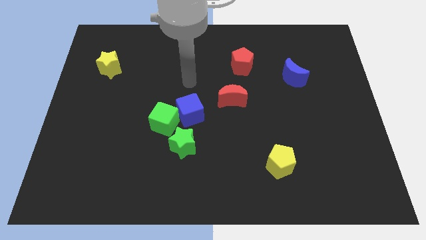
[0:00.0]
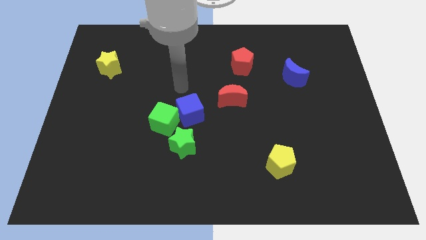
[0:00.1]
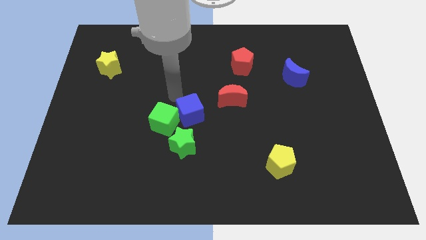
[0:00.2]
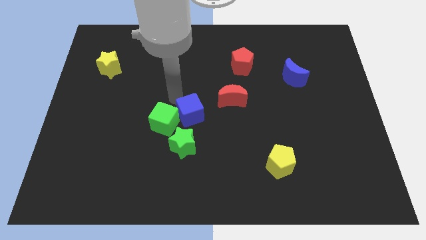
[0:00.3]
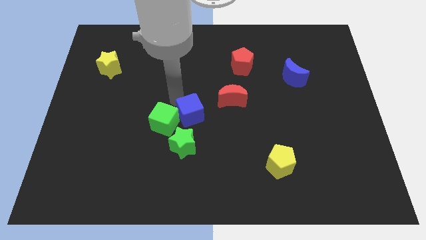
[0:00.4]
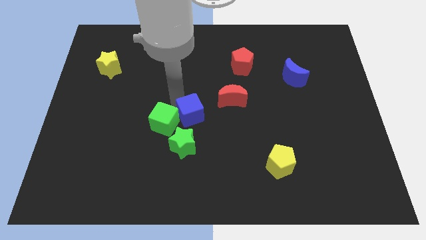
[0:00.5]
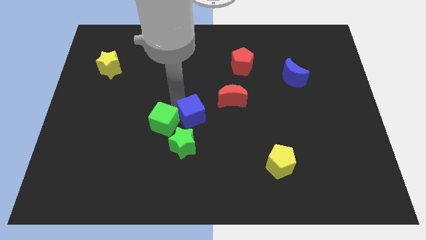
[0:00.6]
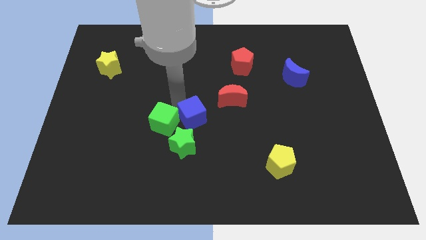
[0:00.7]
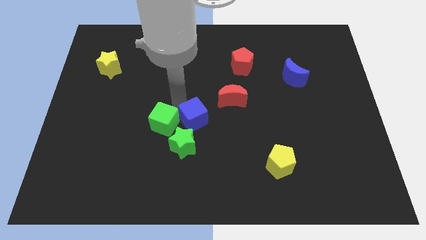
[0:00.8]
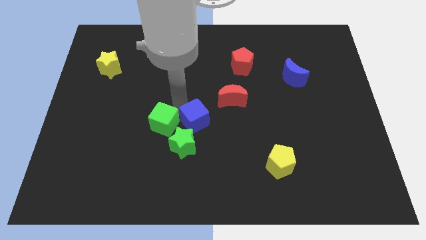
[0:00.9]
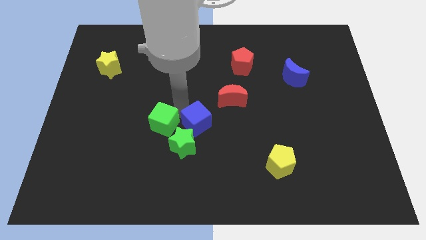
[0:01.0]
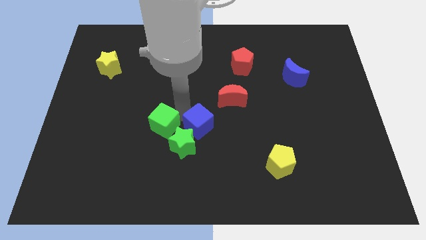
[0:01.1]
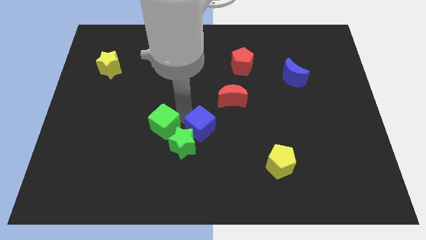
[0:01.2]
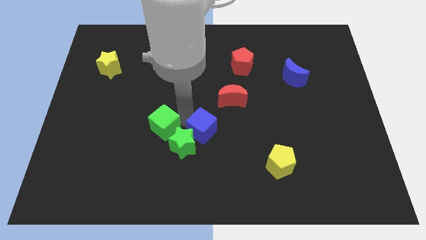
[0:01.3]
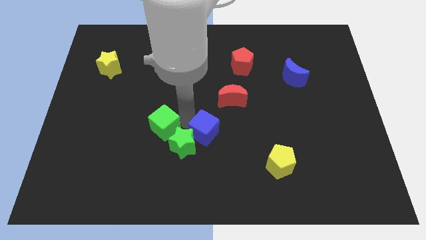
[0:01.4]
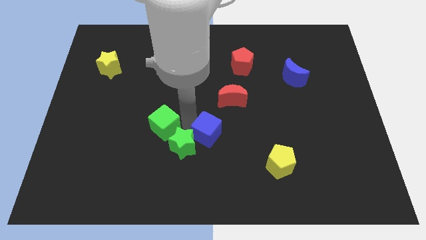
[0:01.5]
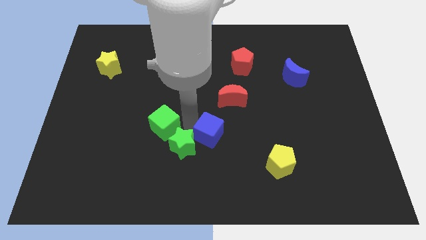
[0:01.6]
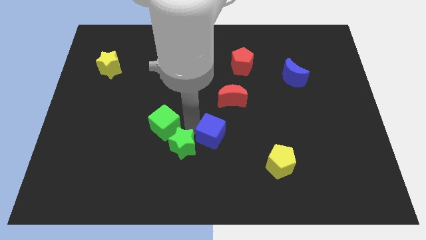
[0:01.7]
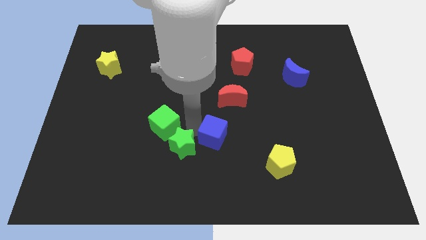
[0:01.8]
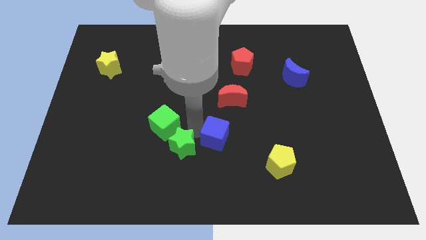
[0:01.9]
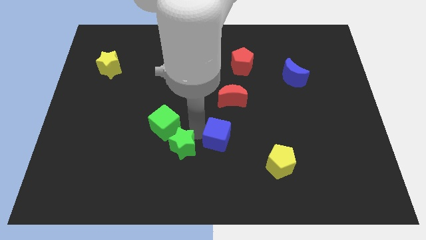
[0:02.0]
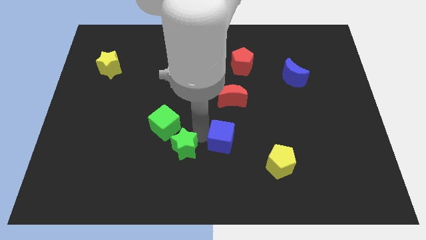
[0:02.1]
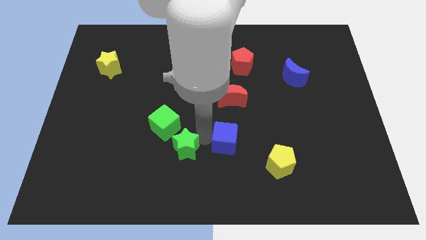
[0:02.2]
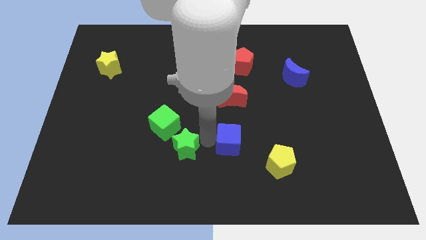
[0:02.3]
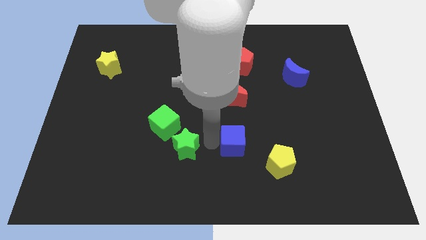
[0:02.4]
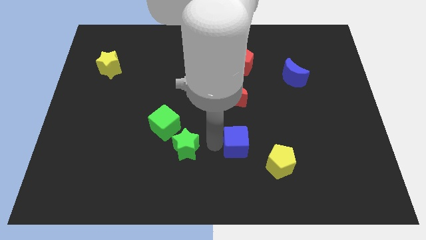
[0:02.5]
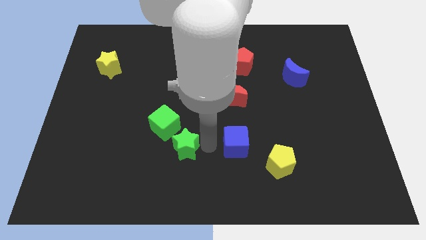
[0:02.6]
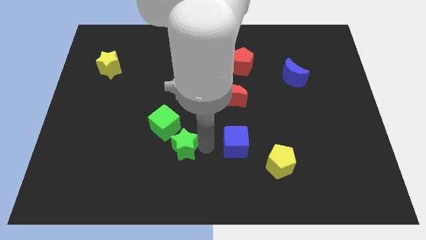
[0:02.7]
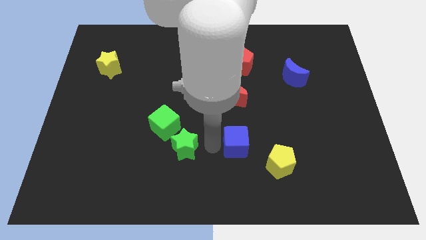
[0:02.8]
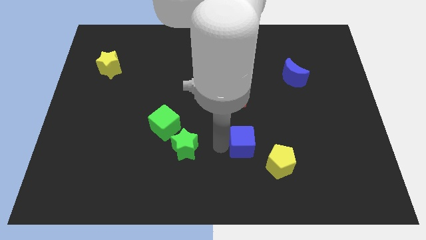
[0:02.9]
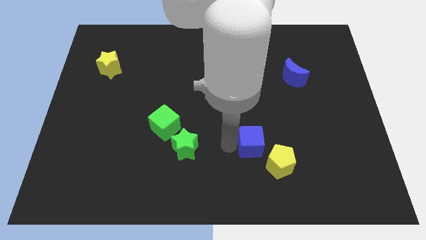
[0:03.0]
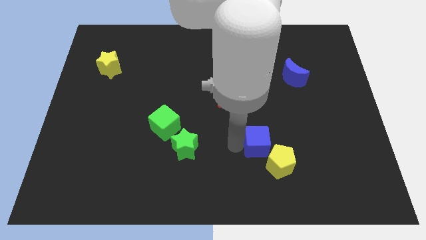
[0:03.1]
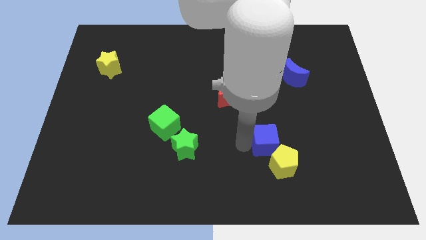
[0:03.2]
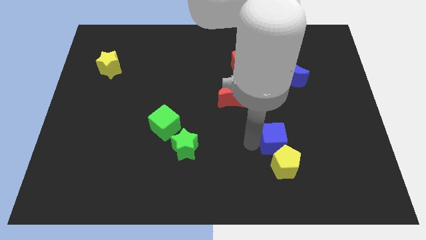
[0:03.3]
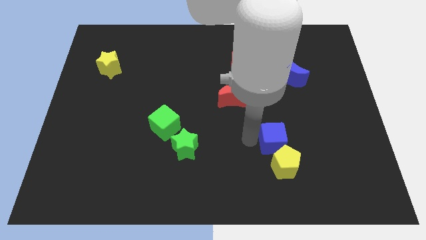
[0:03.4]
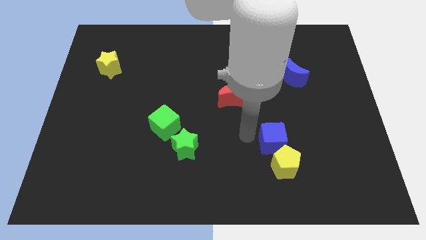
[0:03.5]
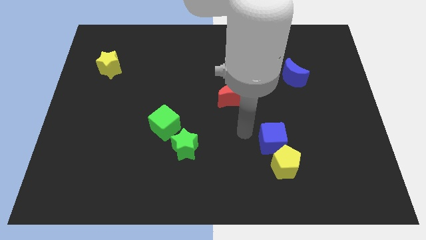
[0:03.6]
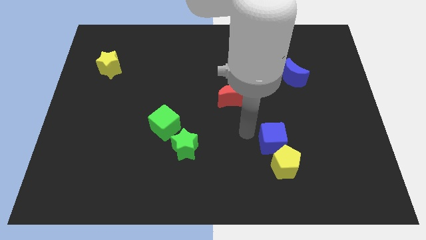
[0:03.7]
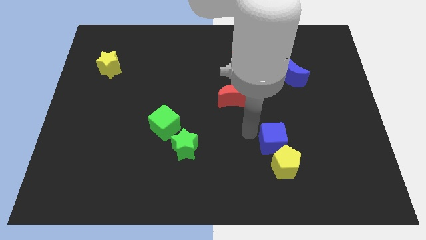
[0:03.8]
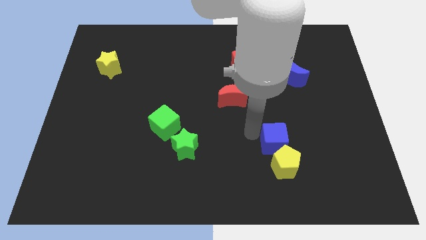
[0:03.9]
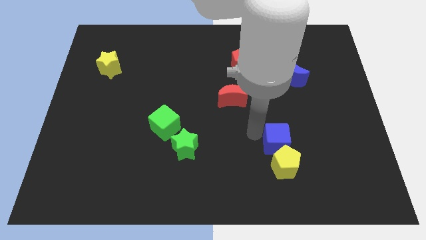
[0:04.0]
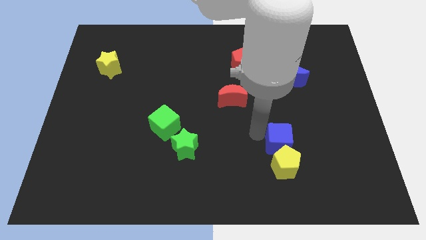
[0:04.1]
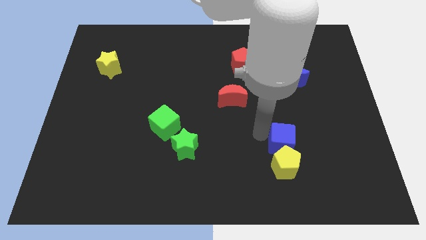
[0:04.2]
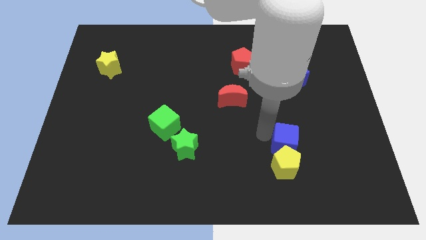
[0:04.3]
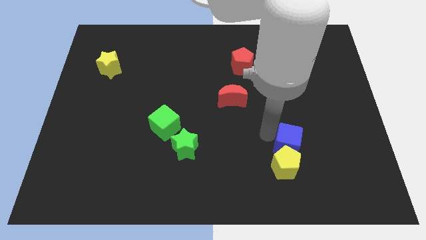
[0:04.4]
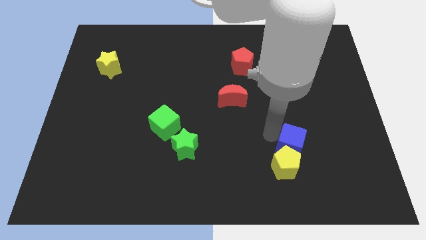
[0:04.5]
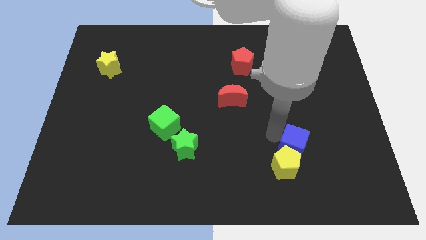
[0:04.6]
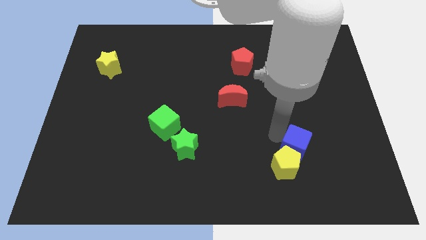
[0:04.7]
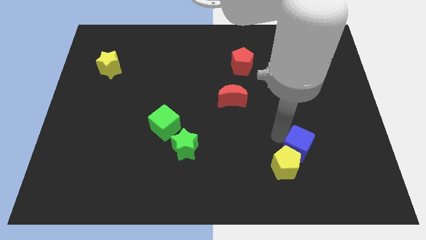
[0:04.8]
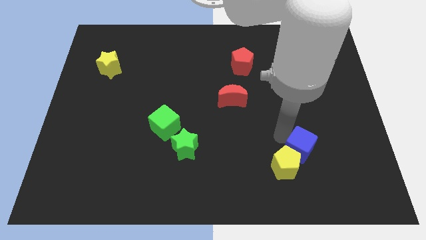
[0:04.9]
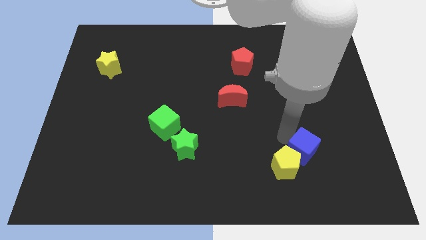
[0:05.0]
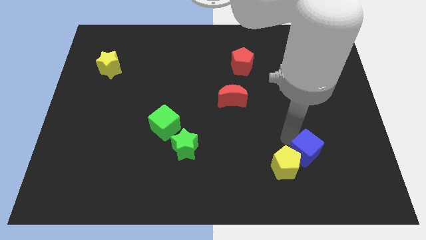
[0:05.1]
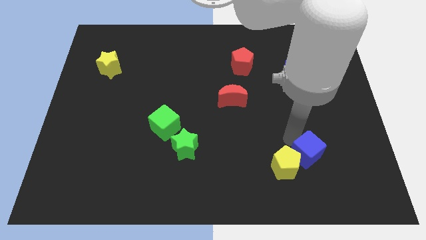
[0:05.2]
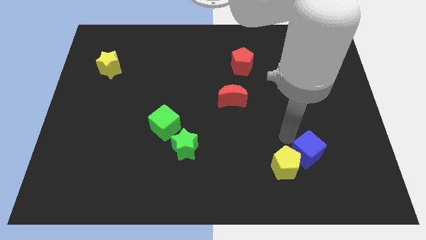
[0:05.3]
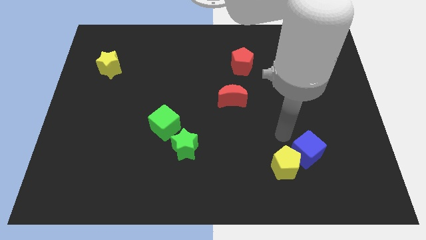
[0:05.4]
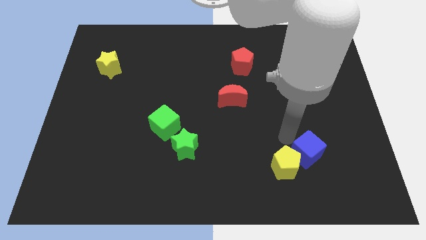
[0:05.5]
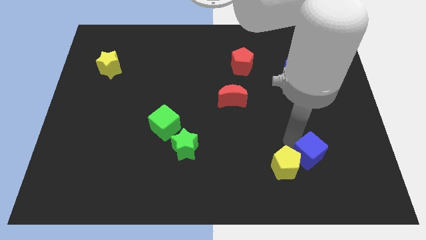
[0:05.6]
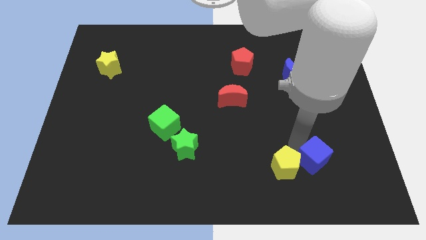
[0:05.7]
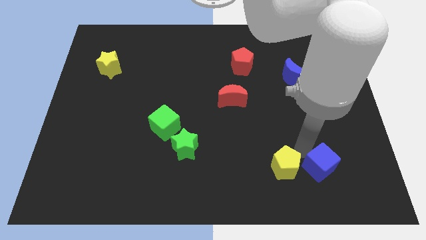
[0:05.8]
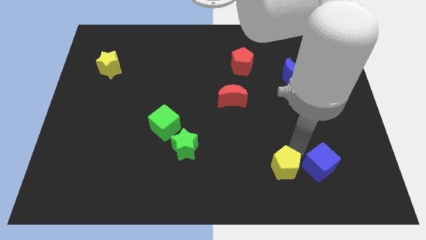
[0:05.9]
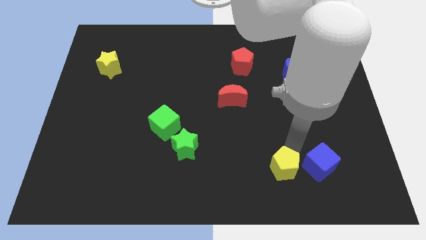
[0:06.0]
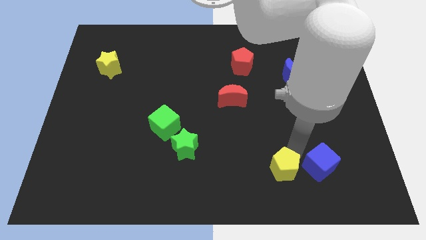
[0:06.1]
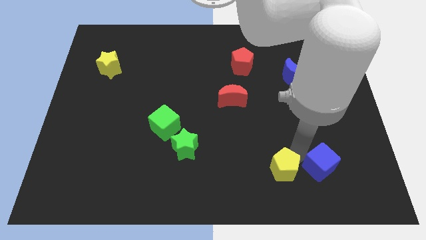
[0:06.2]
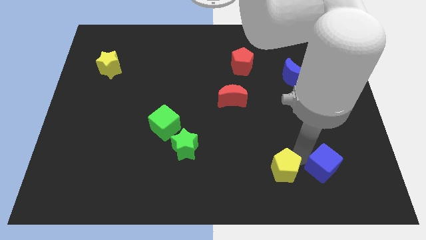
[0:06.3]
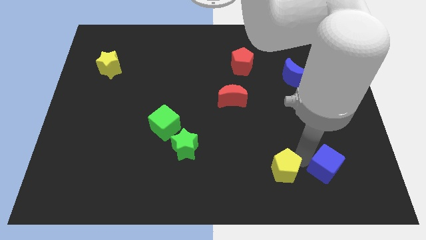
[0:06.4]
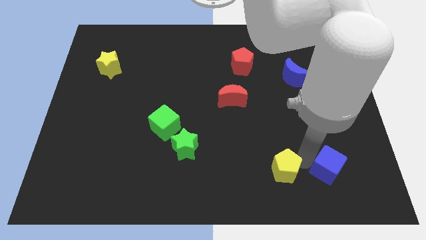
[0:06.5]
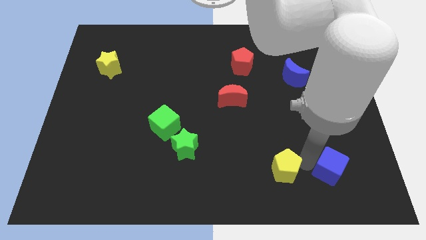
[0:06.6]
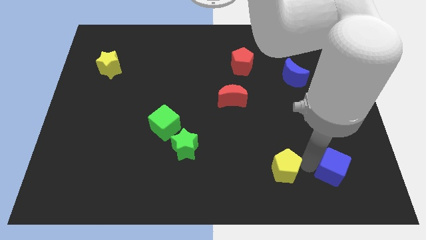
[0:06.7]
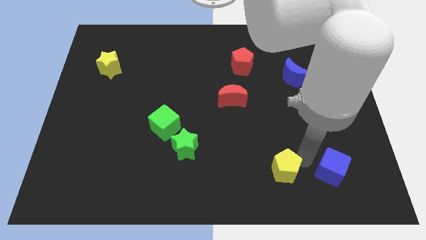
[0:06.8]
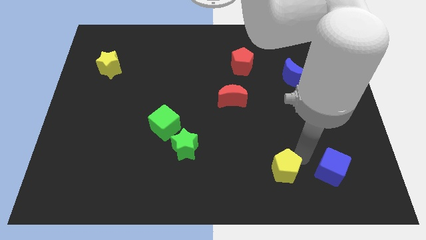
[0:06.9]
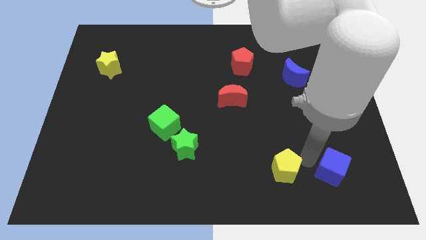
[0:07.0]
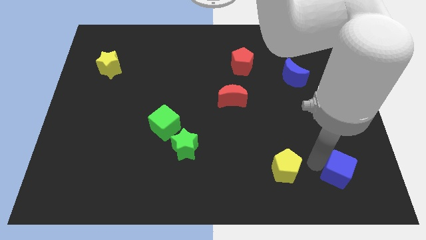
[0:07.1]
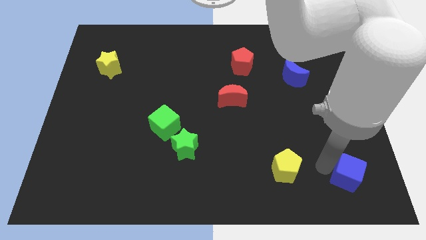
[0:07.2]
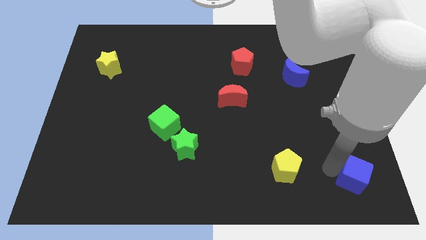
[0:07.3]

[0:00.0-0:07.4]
put the blue cube to the bottom right

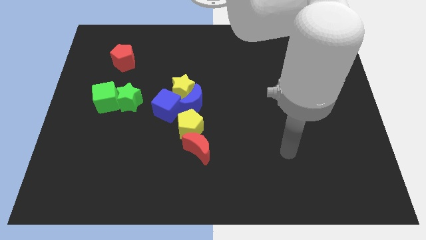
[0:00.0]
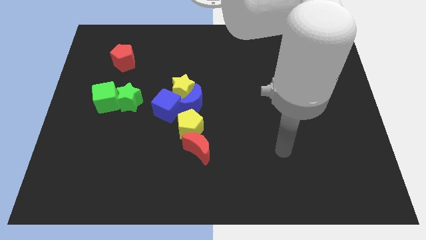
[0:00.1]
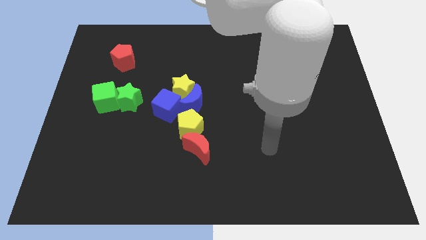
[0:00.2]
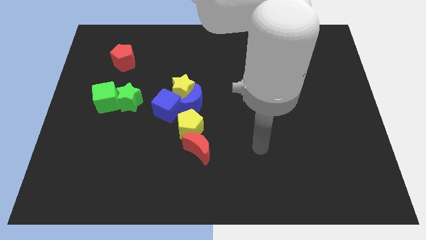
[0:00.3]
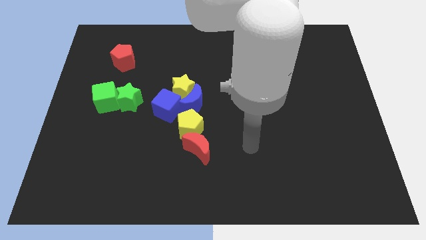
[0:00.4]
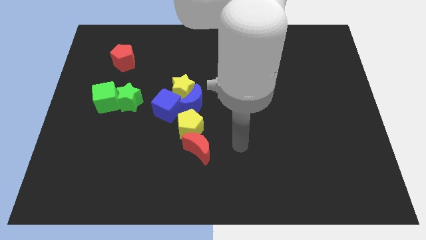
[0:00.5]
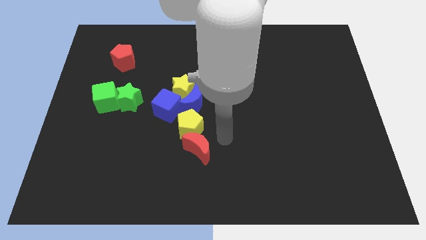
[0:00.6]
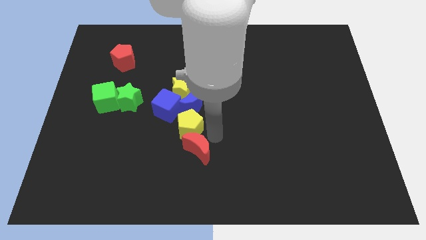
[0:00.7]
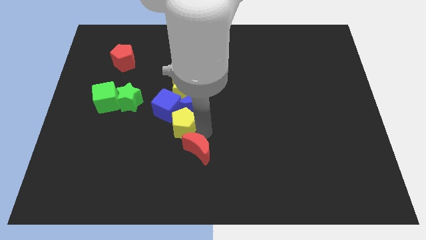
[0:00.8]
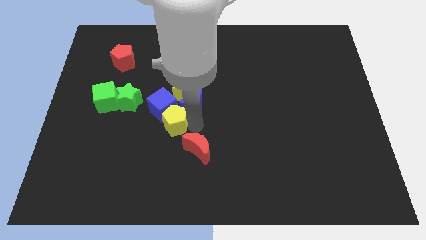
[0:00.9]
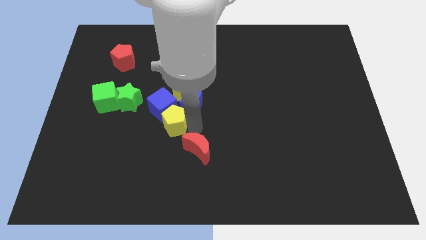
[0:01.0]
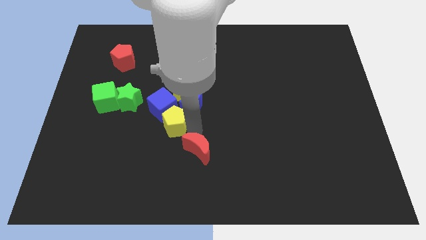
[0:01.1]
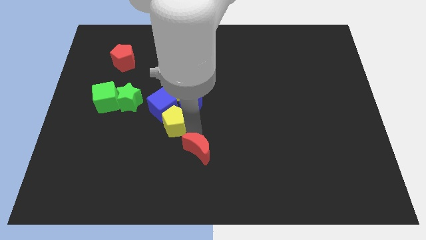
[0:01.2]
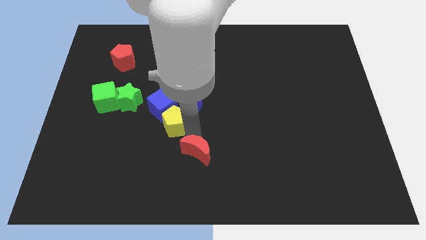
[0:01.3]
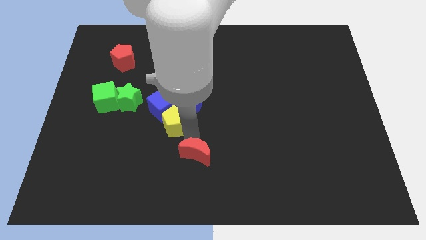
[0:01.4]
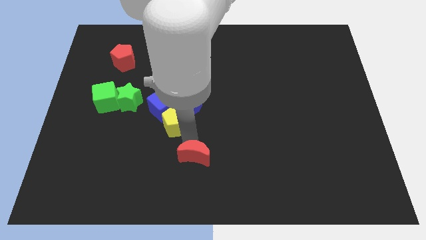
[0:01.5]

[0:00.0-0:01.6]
move the red moon to the bottom side
